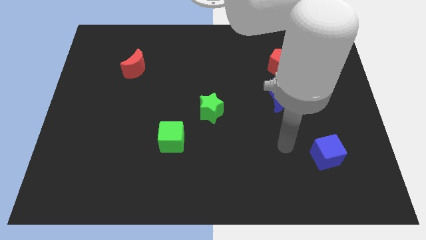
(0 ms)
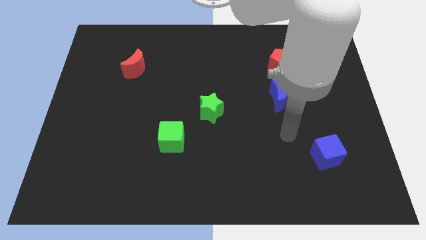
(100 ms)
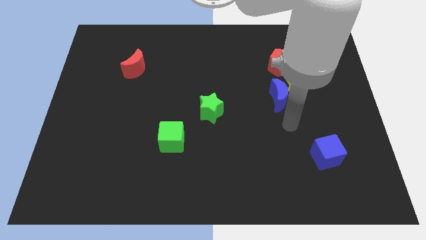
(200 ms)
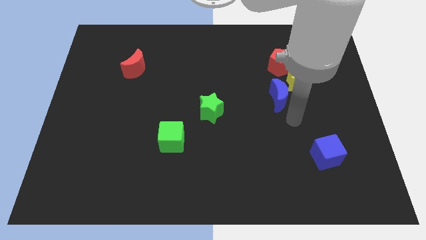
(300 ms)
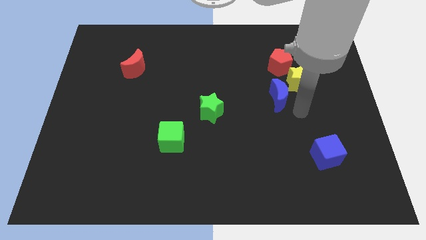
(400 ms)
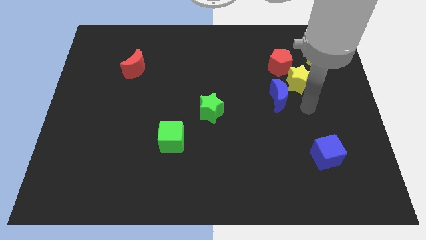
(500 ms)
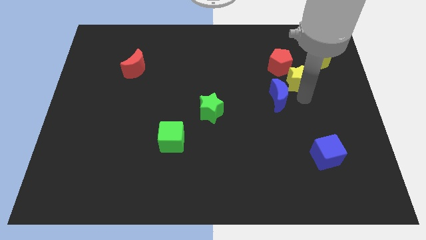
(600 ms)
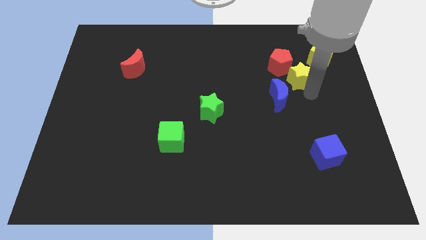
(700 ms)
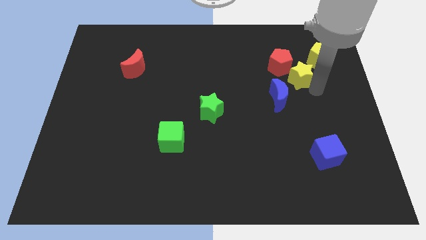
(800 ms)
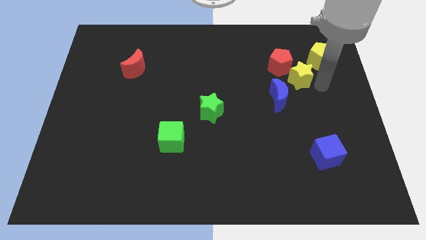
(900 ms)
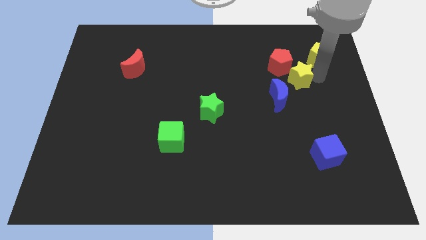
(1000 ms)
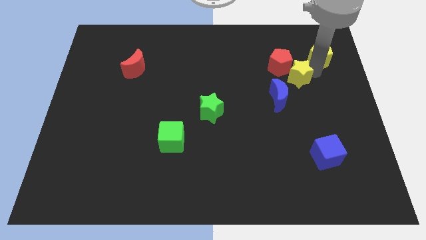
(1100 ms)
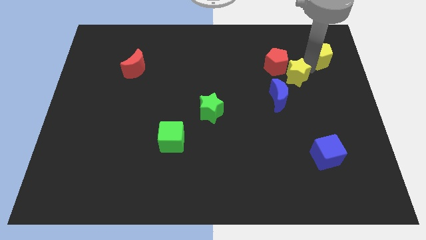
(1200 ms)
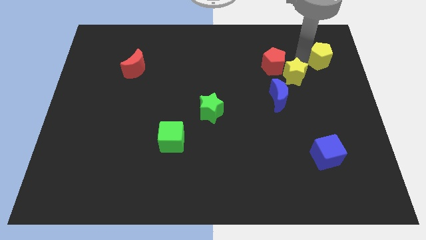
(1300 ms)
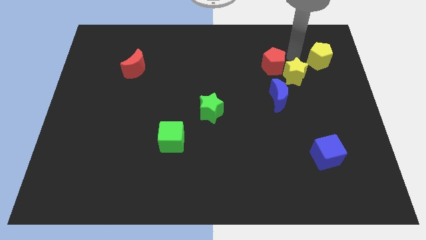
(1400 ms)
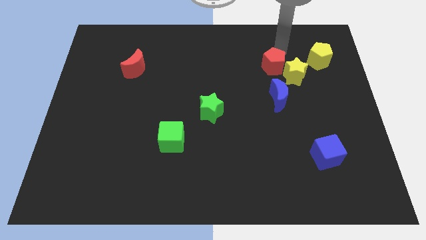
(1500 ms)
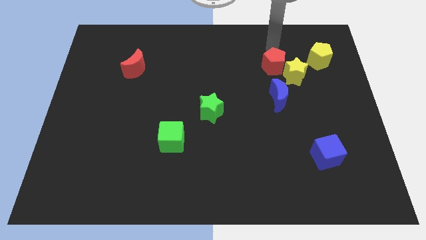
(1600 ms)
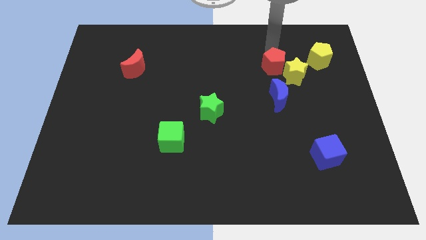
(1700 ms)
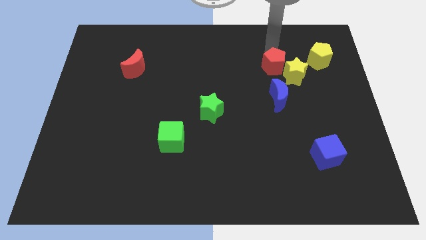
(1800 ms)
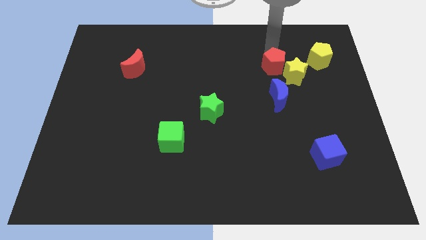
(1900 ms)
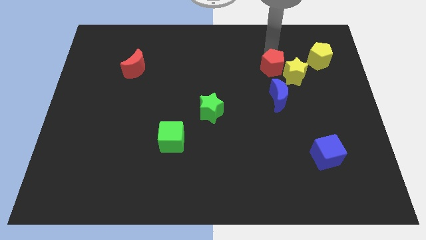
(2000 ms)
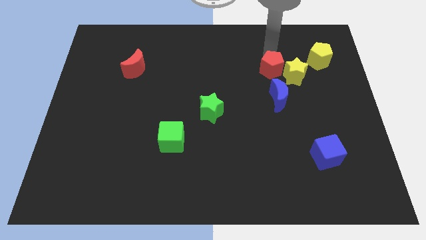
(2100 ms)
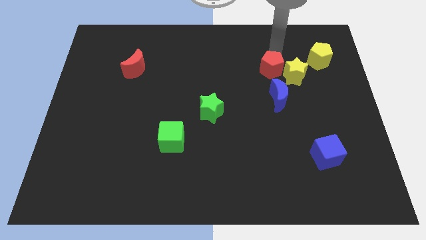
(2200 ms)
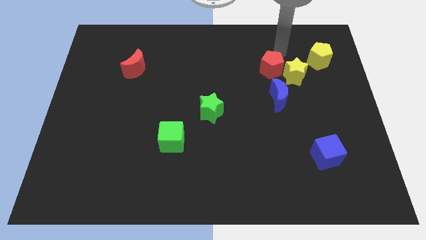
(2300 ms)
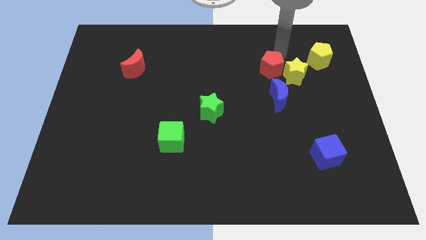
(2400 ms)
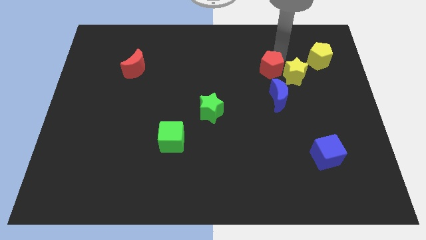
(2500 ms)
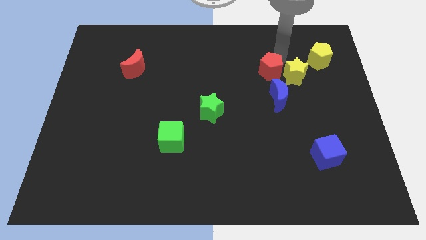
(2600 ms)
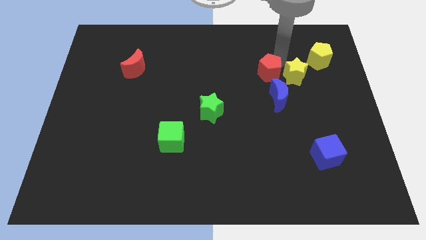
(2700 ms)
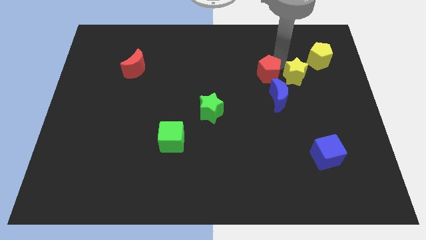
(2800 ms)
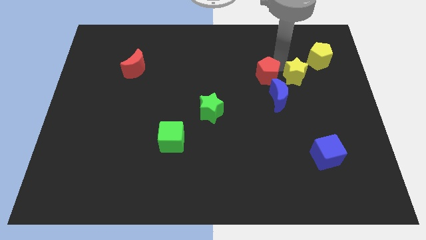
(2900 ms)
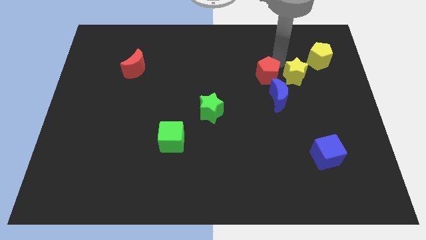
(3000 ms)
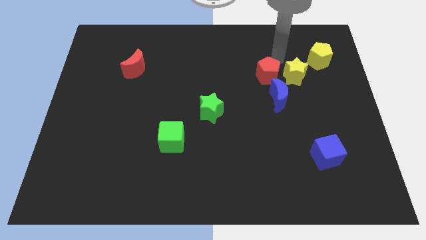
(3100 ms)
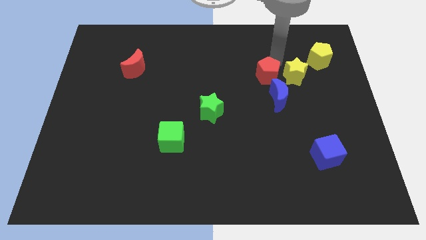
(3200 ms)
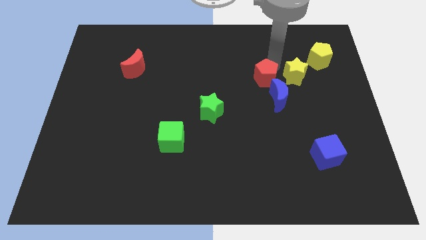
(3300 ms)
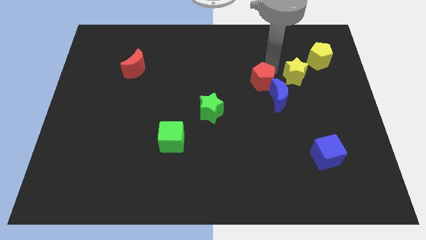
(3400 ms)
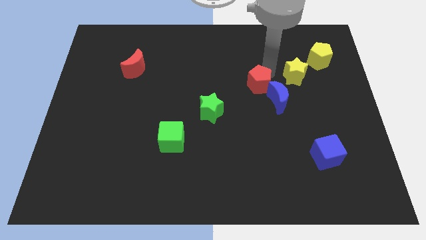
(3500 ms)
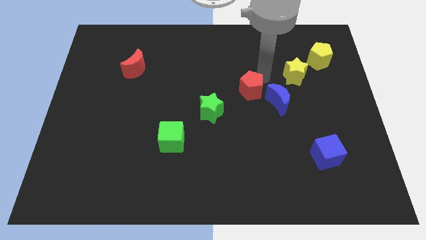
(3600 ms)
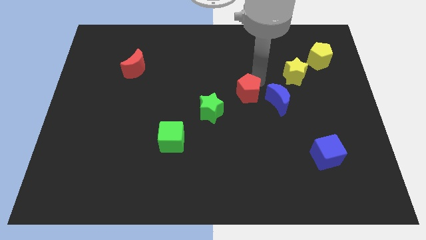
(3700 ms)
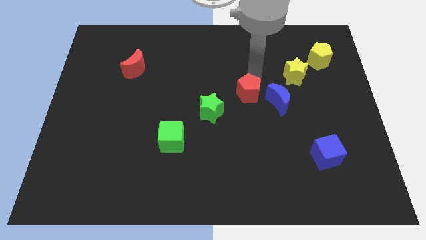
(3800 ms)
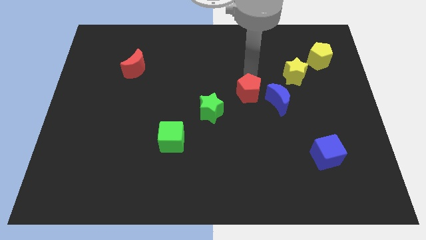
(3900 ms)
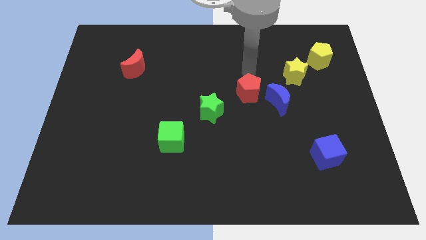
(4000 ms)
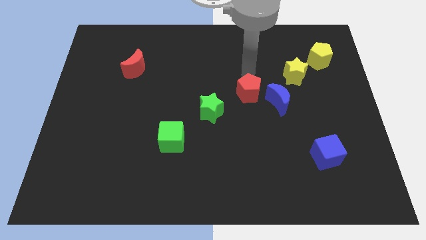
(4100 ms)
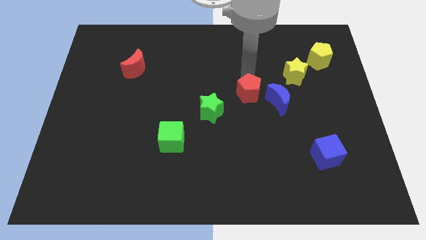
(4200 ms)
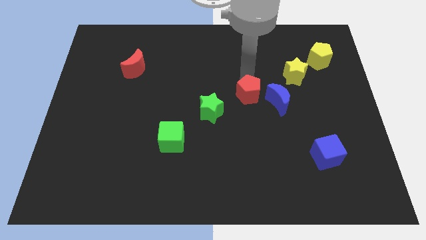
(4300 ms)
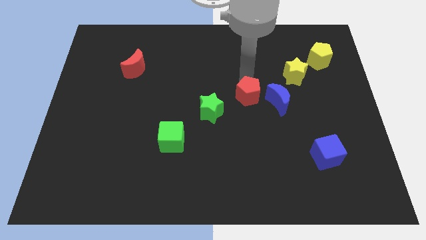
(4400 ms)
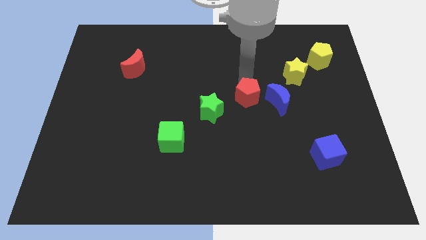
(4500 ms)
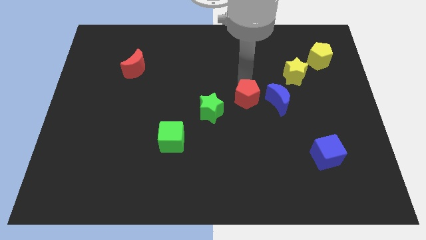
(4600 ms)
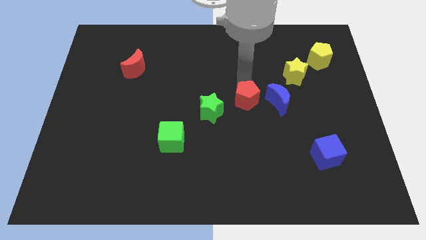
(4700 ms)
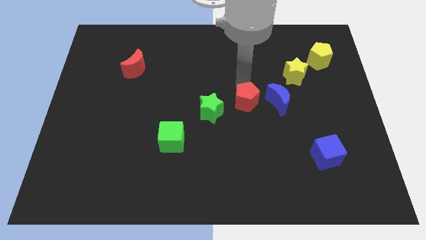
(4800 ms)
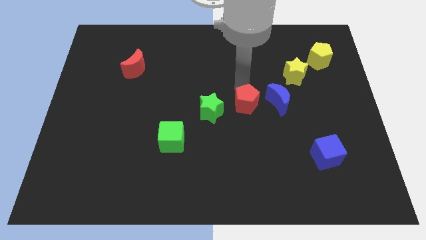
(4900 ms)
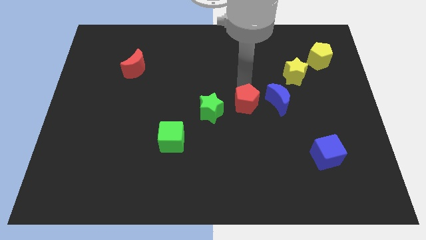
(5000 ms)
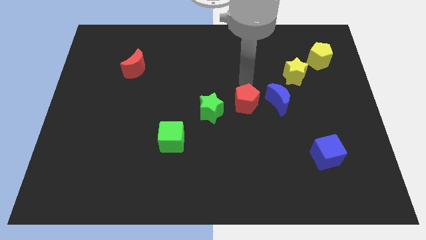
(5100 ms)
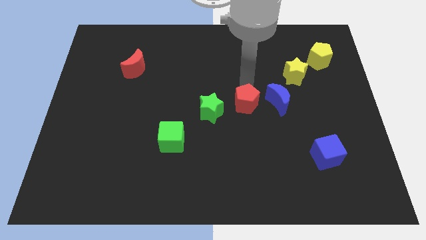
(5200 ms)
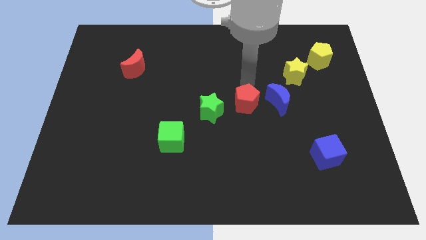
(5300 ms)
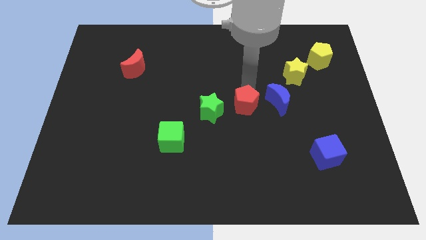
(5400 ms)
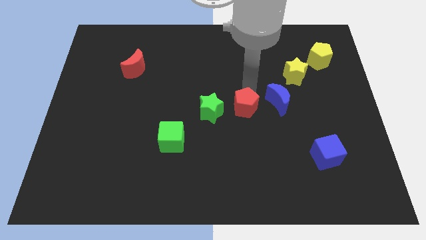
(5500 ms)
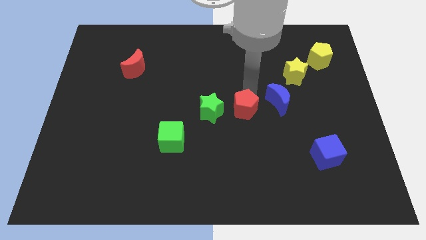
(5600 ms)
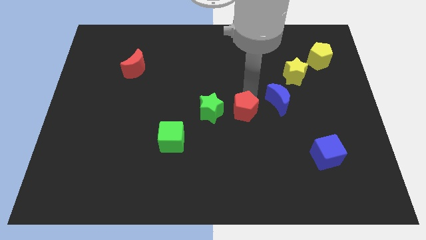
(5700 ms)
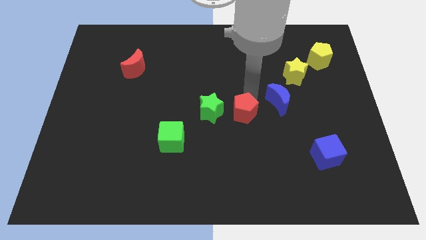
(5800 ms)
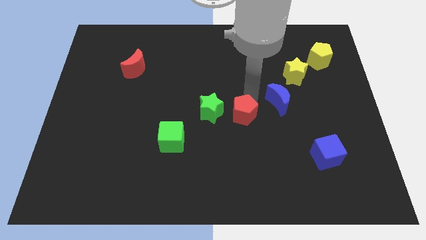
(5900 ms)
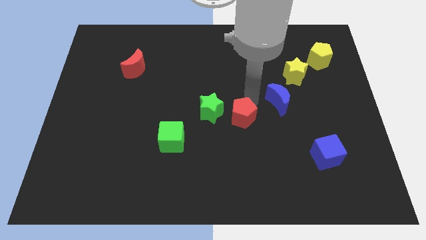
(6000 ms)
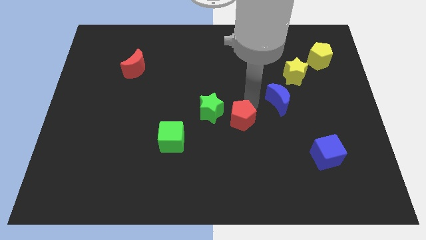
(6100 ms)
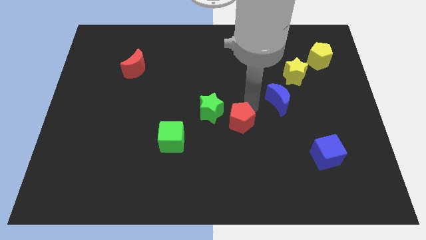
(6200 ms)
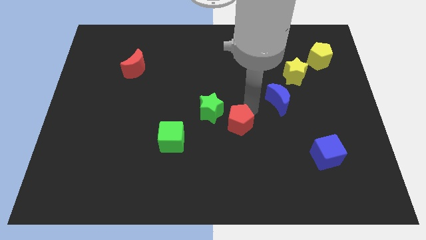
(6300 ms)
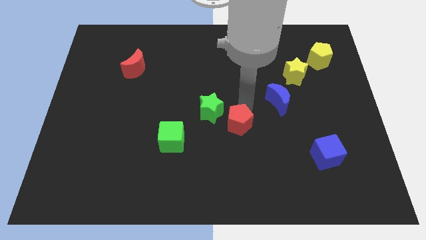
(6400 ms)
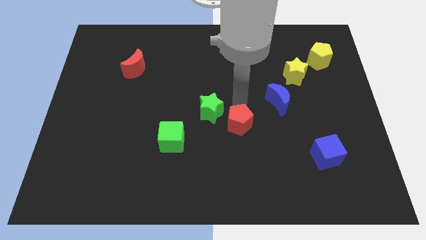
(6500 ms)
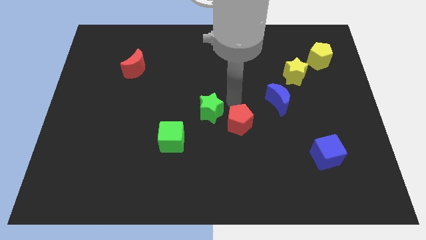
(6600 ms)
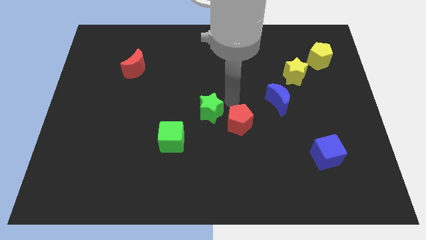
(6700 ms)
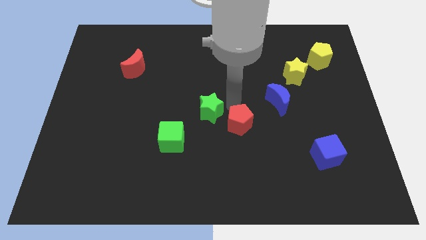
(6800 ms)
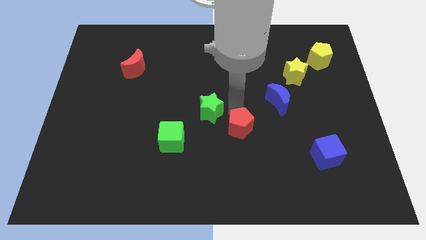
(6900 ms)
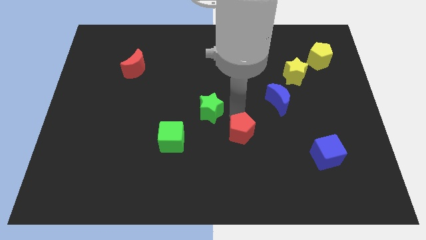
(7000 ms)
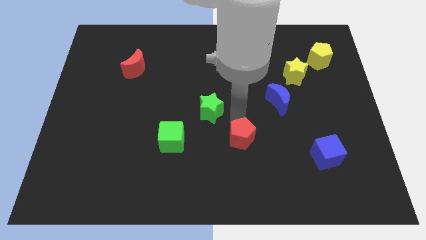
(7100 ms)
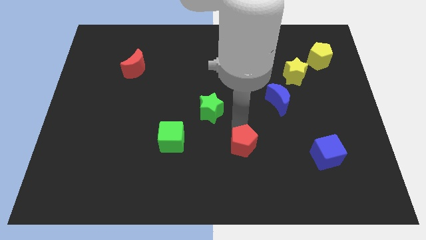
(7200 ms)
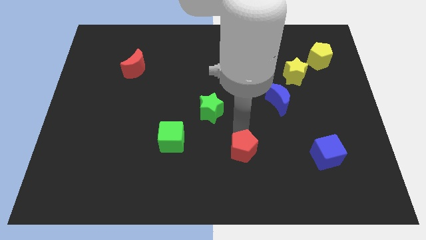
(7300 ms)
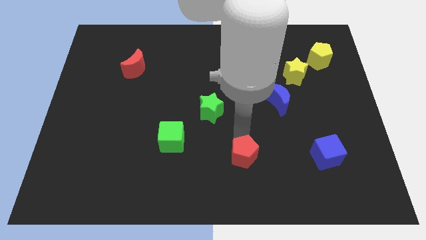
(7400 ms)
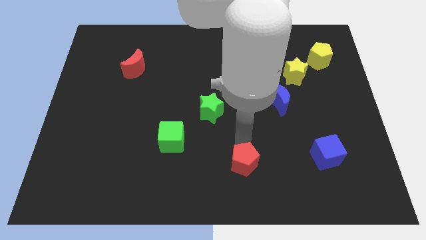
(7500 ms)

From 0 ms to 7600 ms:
slide the red pentagon to the bottom
